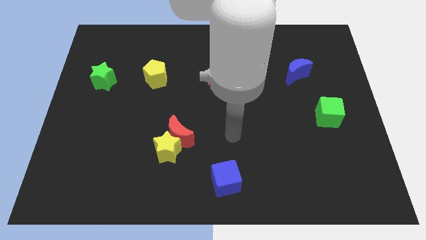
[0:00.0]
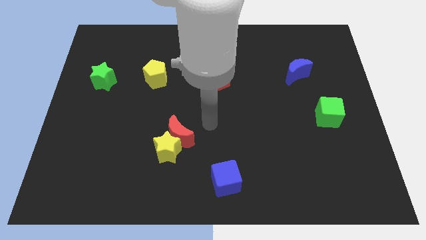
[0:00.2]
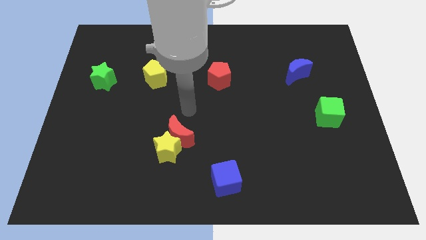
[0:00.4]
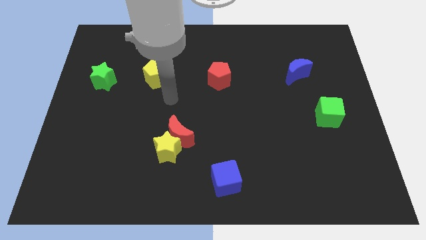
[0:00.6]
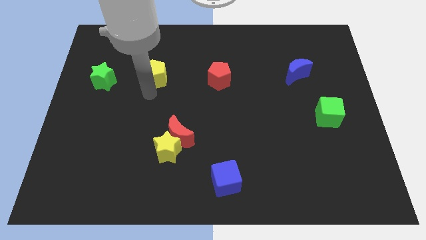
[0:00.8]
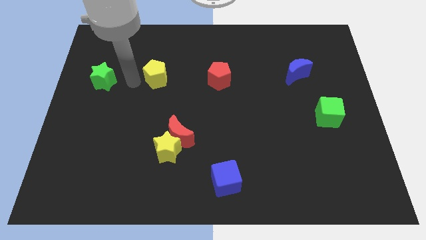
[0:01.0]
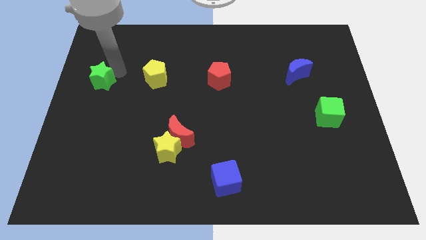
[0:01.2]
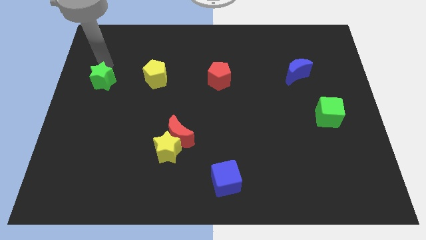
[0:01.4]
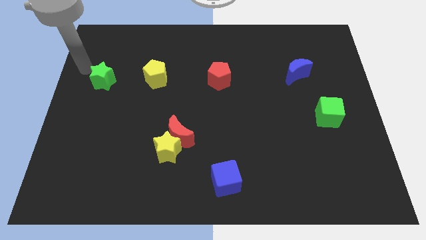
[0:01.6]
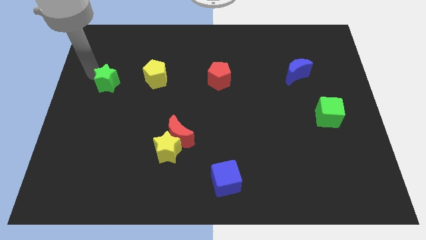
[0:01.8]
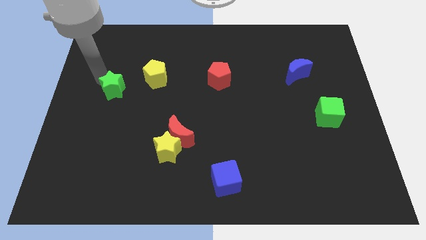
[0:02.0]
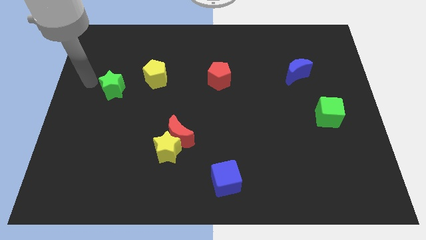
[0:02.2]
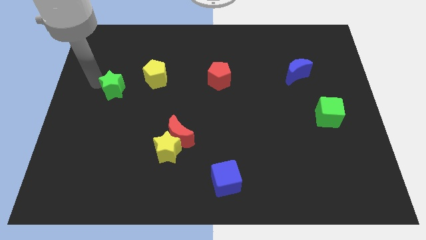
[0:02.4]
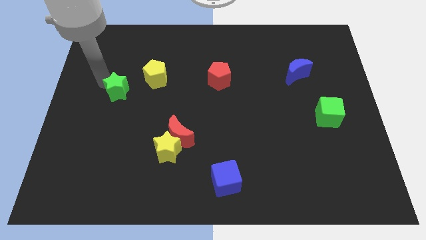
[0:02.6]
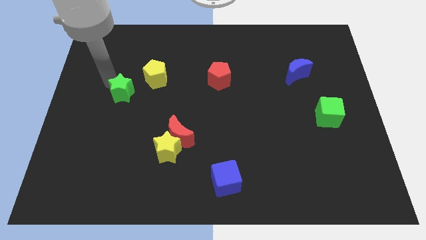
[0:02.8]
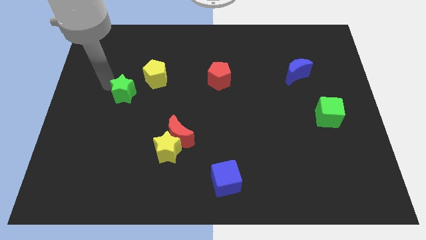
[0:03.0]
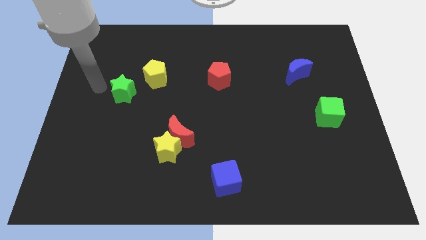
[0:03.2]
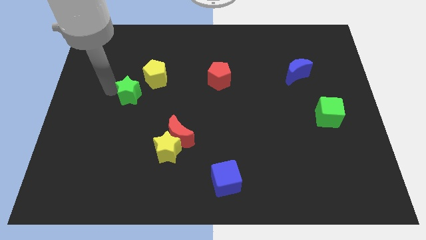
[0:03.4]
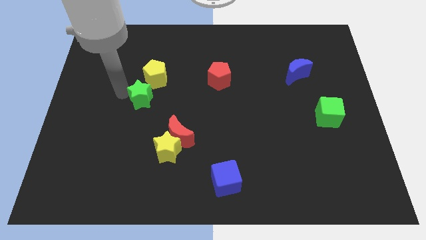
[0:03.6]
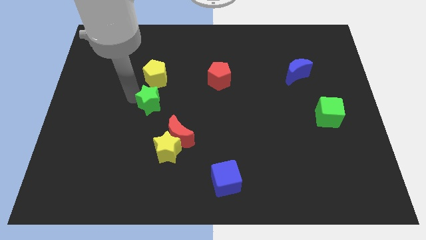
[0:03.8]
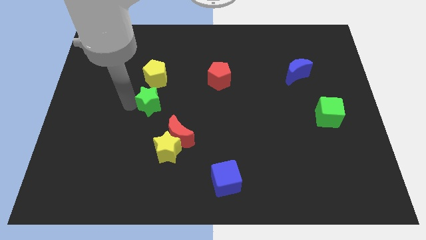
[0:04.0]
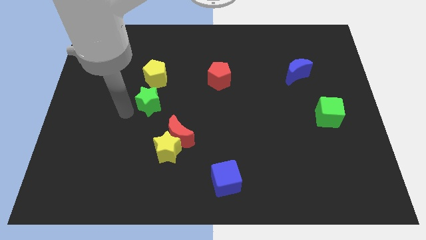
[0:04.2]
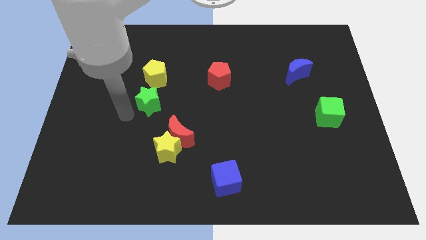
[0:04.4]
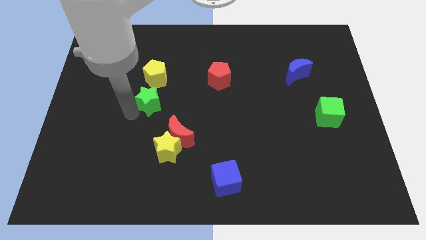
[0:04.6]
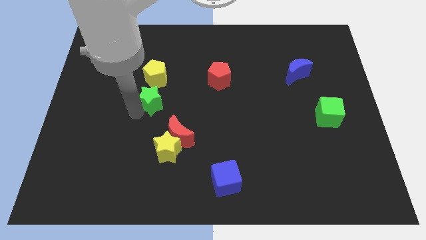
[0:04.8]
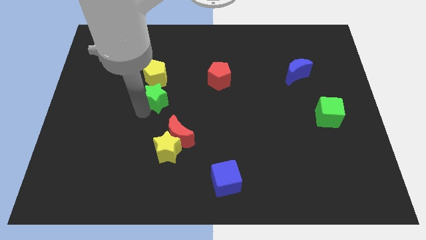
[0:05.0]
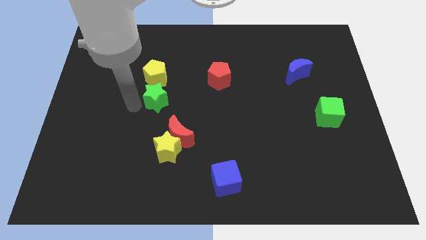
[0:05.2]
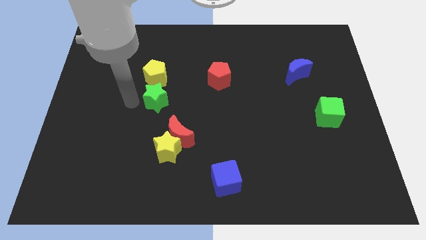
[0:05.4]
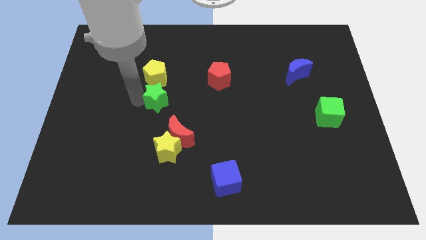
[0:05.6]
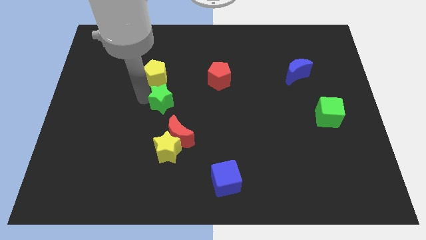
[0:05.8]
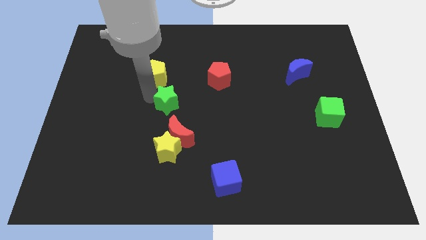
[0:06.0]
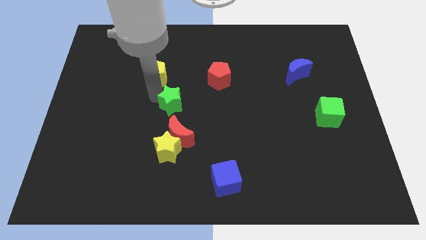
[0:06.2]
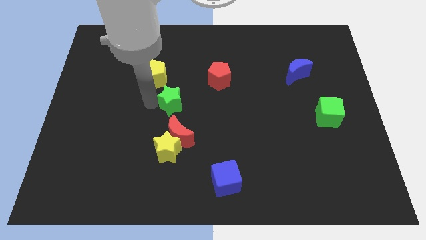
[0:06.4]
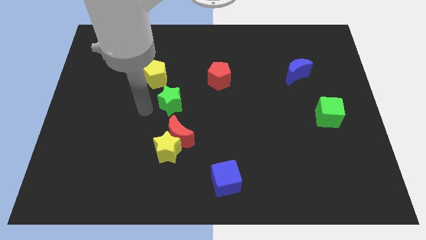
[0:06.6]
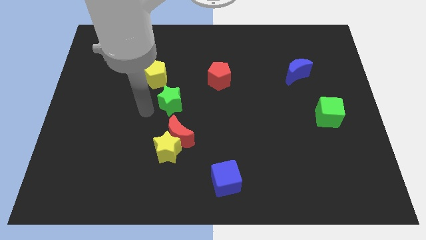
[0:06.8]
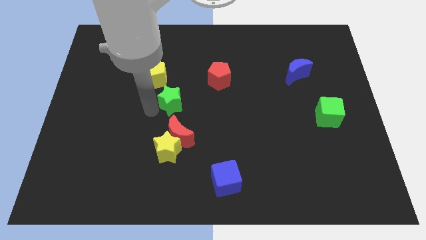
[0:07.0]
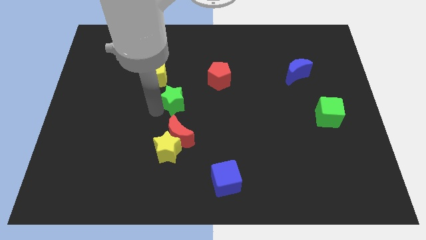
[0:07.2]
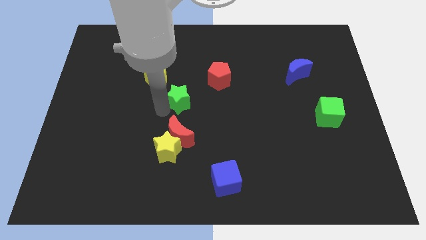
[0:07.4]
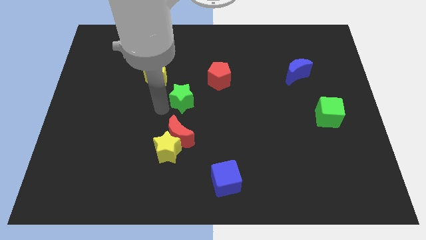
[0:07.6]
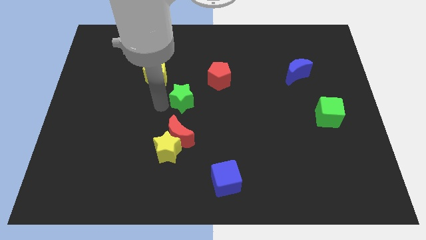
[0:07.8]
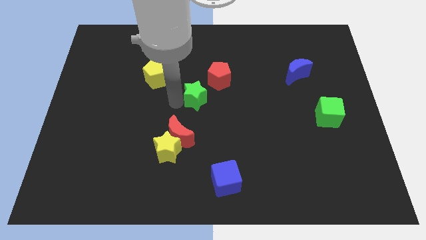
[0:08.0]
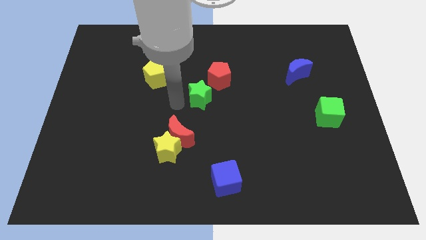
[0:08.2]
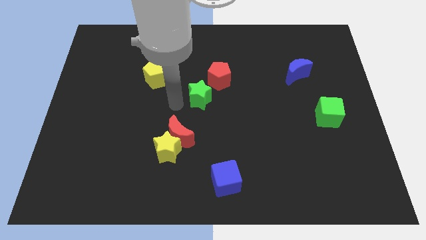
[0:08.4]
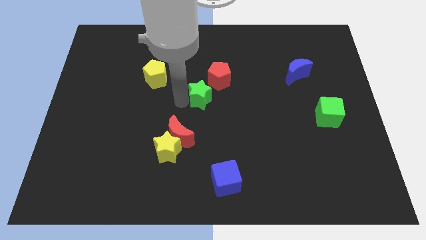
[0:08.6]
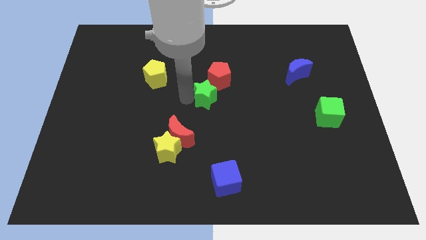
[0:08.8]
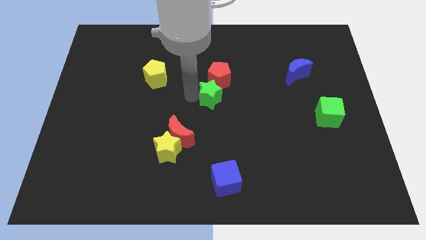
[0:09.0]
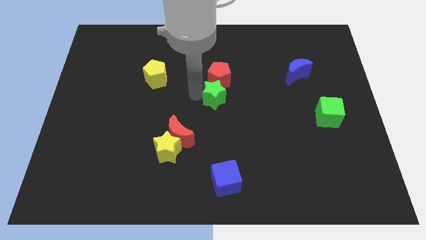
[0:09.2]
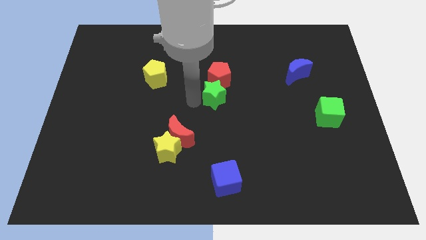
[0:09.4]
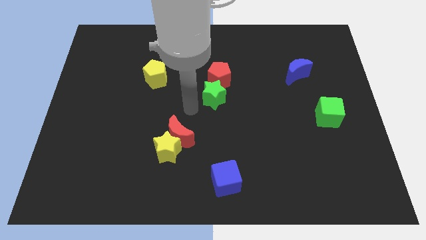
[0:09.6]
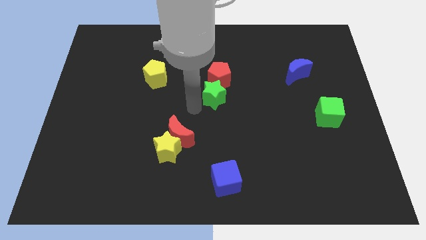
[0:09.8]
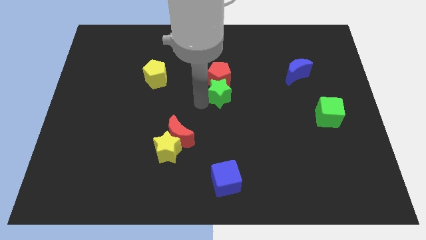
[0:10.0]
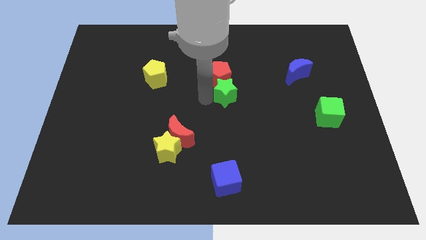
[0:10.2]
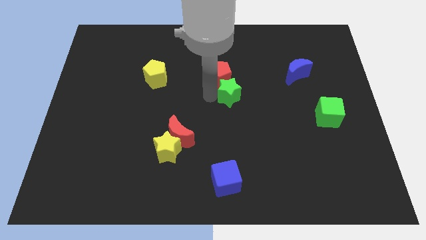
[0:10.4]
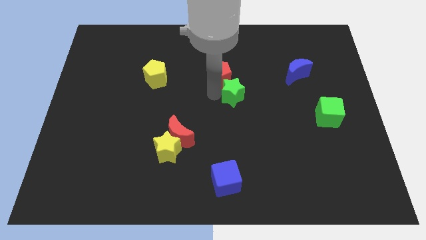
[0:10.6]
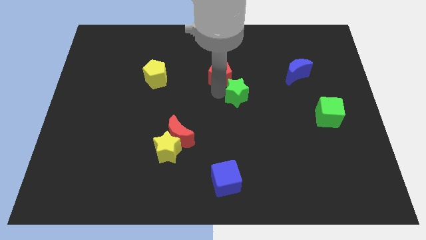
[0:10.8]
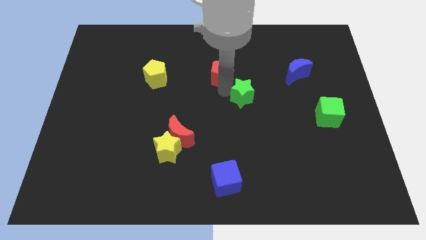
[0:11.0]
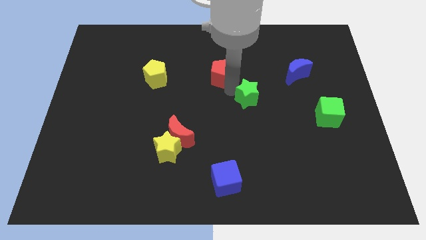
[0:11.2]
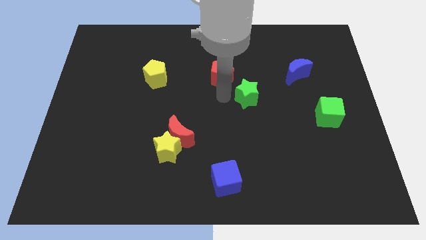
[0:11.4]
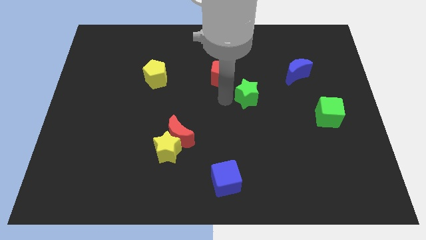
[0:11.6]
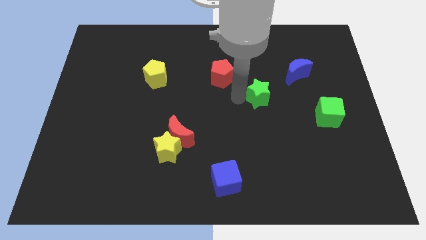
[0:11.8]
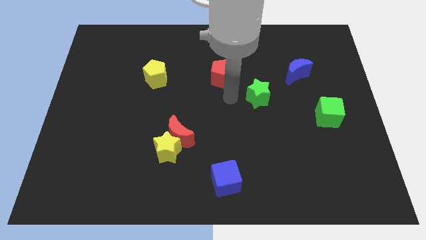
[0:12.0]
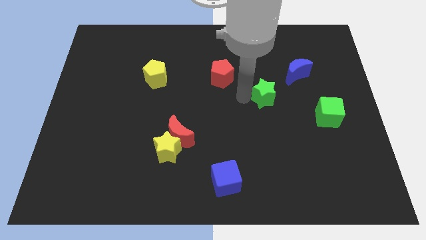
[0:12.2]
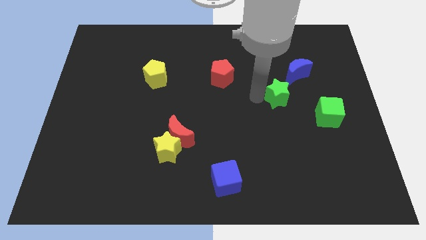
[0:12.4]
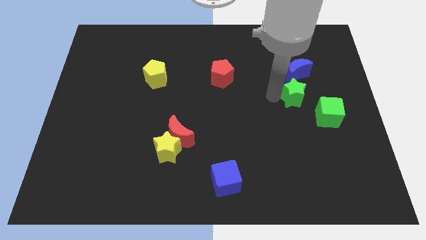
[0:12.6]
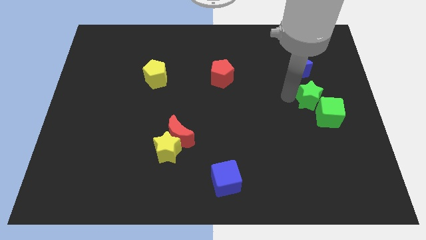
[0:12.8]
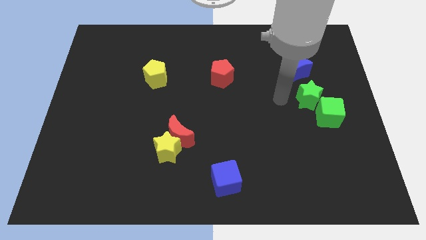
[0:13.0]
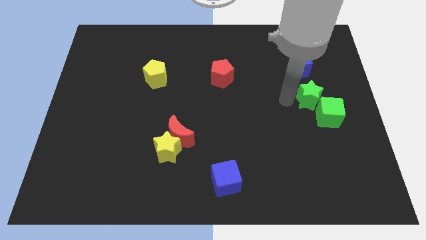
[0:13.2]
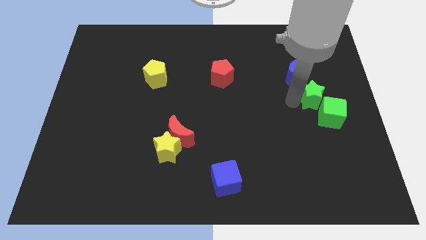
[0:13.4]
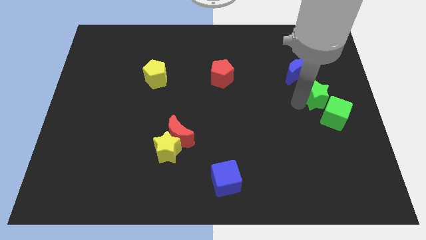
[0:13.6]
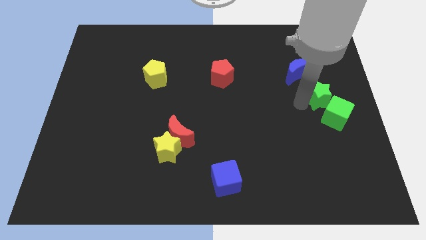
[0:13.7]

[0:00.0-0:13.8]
put the green star to the right side
